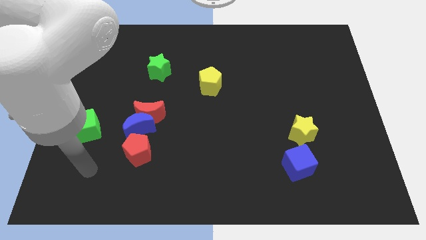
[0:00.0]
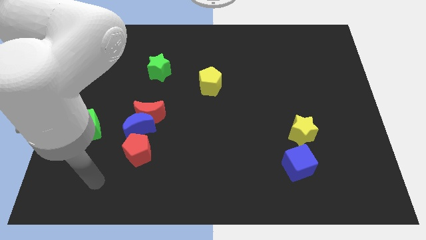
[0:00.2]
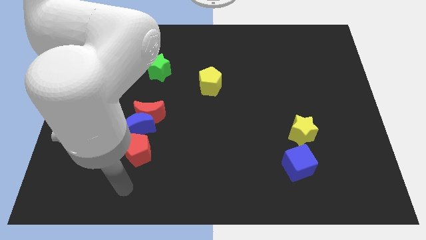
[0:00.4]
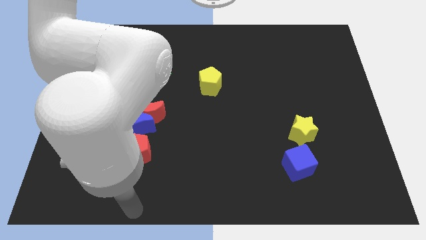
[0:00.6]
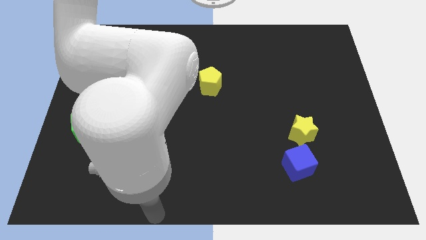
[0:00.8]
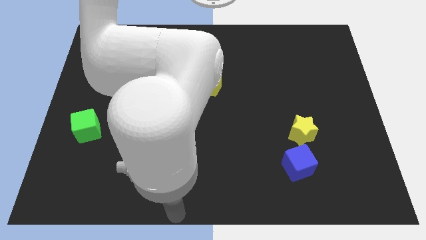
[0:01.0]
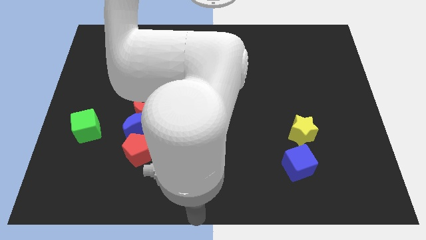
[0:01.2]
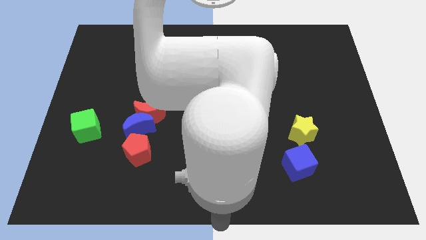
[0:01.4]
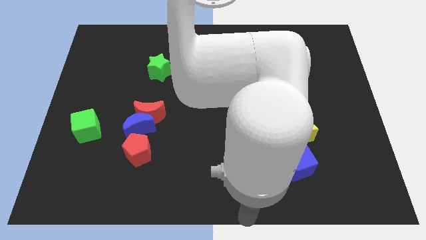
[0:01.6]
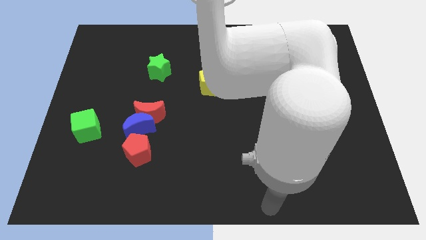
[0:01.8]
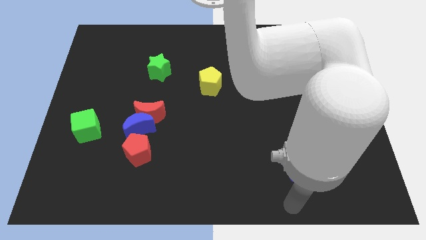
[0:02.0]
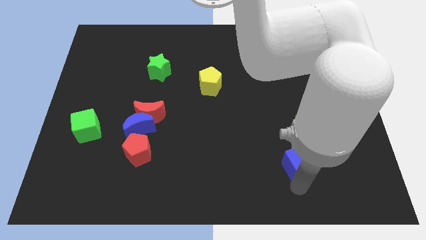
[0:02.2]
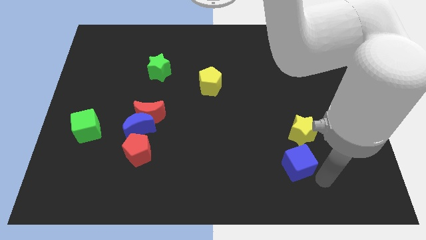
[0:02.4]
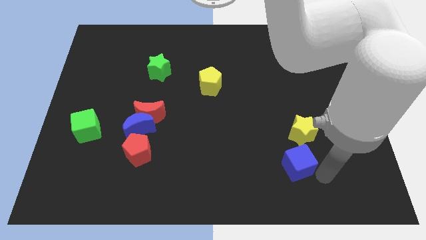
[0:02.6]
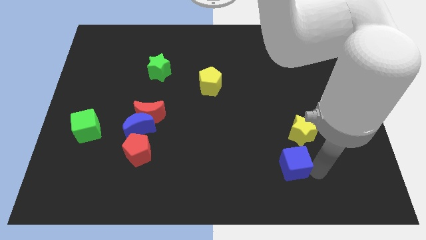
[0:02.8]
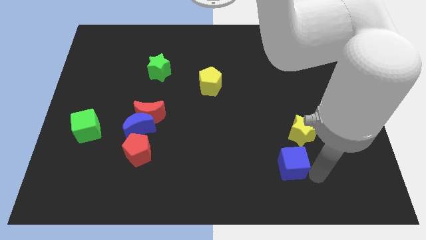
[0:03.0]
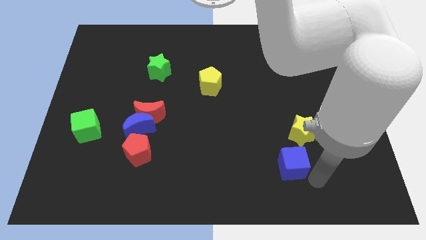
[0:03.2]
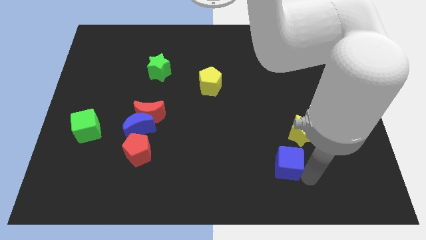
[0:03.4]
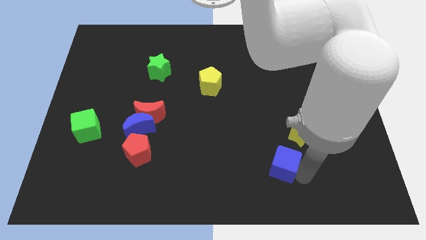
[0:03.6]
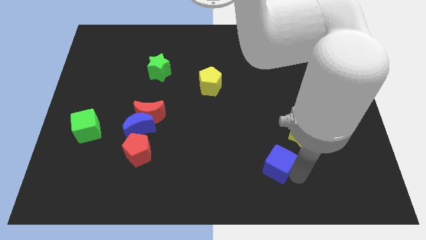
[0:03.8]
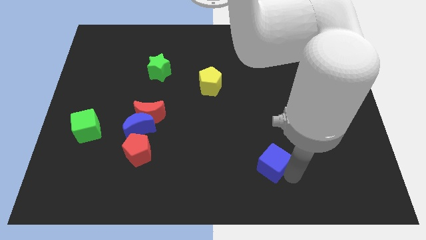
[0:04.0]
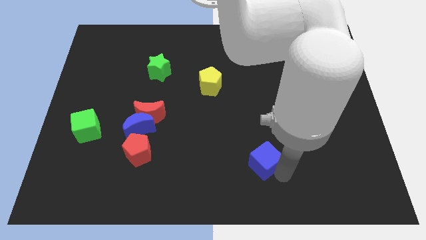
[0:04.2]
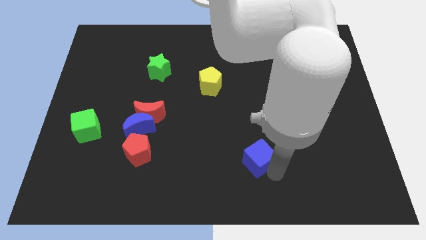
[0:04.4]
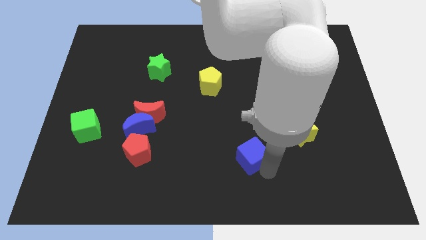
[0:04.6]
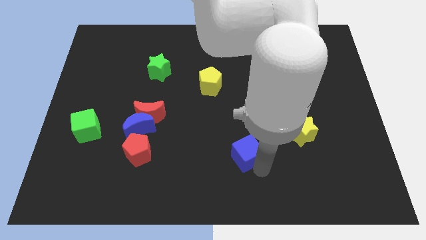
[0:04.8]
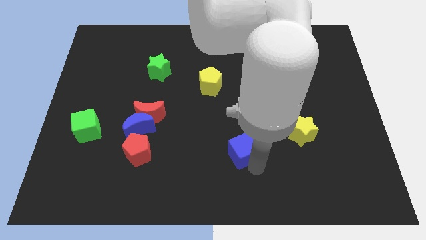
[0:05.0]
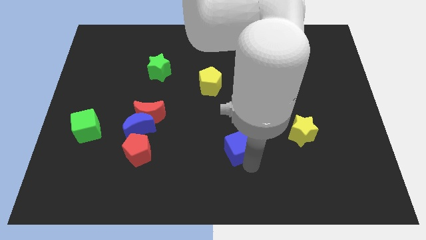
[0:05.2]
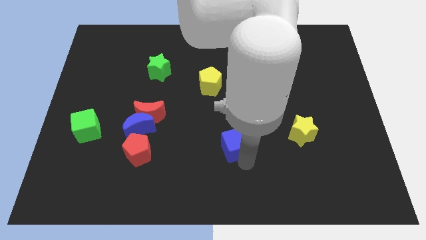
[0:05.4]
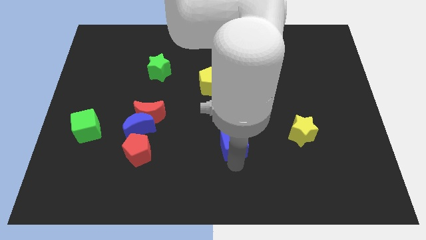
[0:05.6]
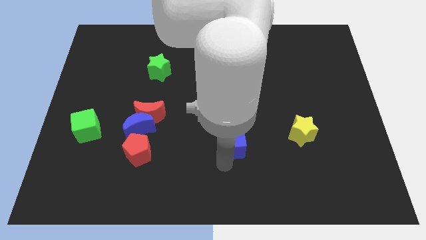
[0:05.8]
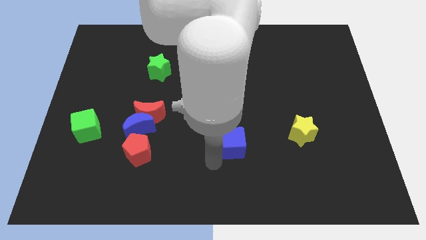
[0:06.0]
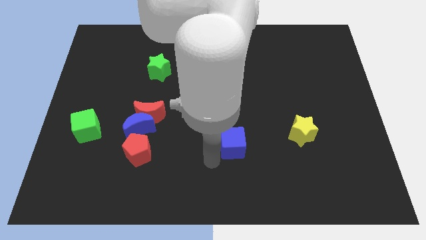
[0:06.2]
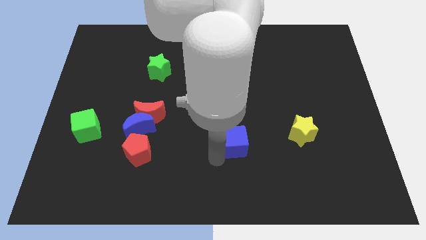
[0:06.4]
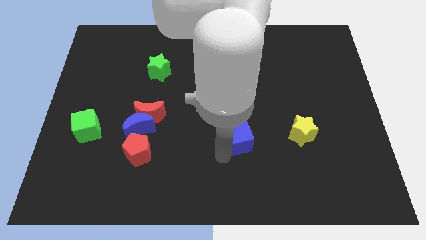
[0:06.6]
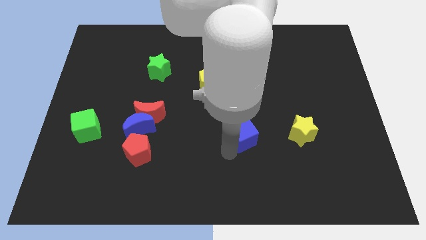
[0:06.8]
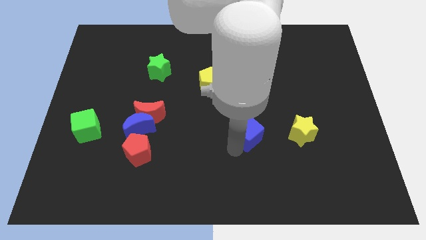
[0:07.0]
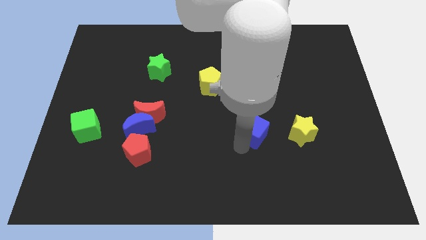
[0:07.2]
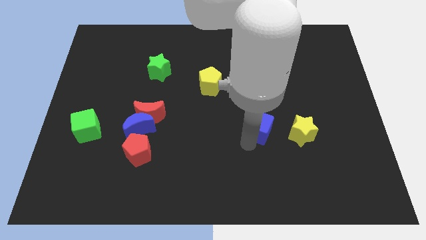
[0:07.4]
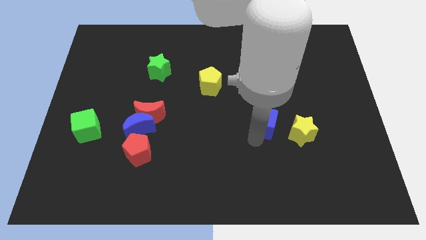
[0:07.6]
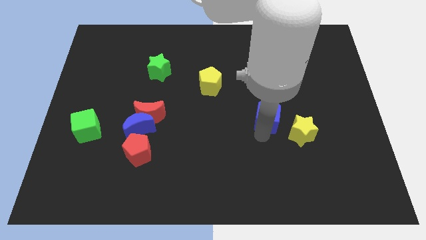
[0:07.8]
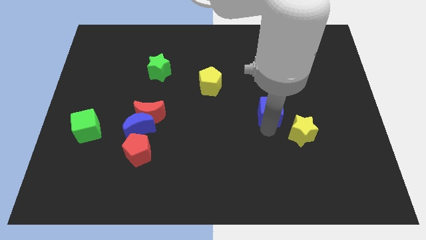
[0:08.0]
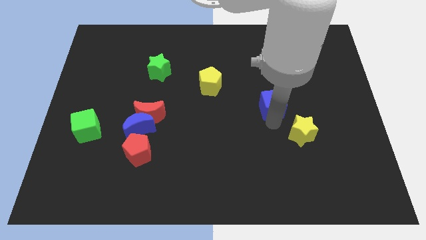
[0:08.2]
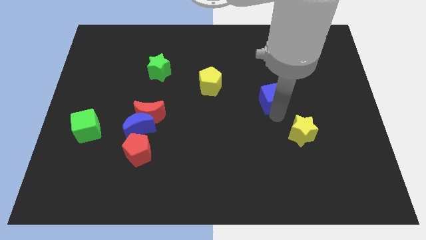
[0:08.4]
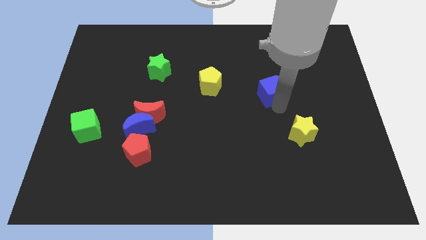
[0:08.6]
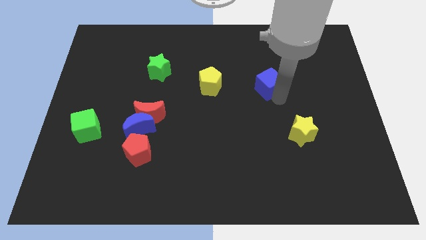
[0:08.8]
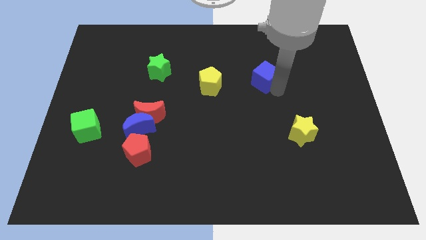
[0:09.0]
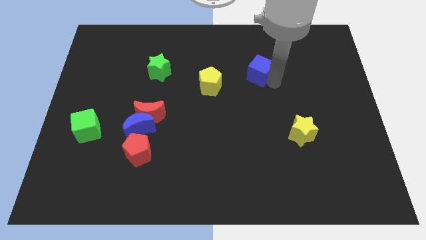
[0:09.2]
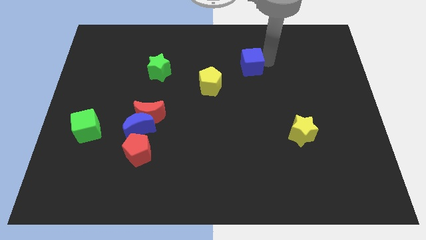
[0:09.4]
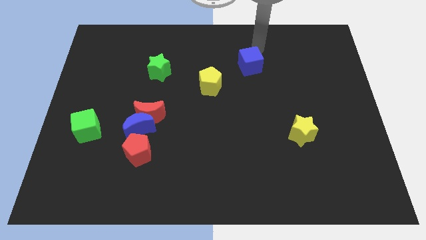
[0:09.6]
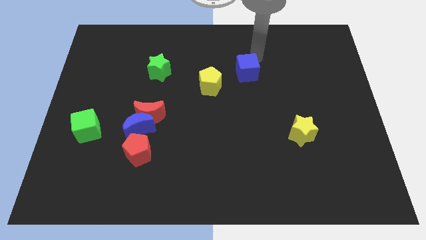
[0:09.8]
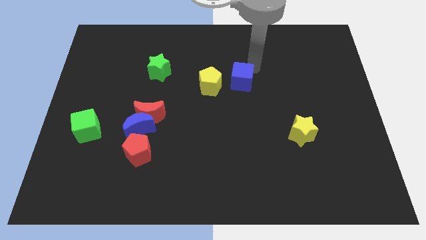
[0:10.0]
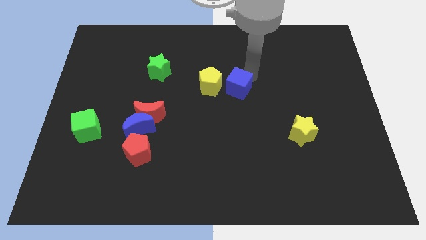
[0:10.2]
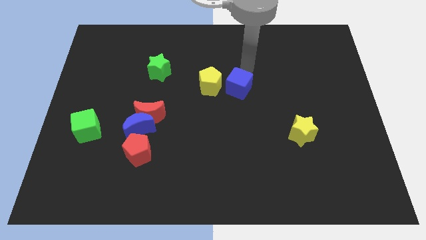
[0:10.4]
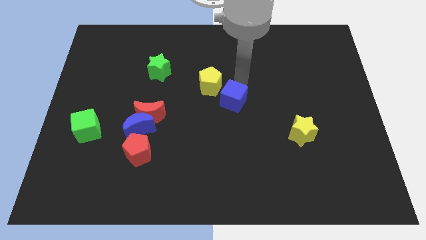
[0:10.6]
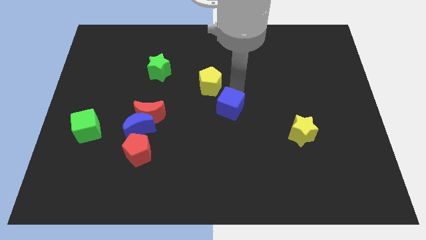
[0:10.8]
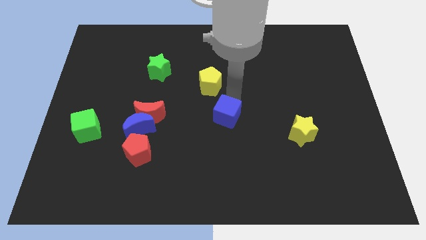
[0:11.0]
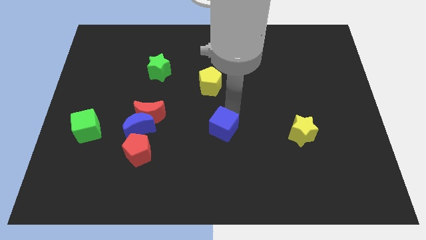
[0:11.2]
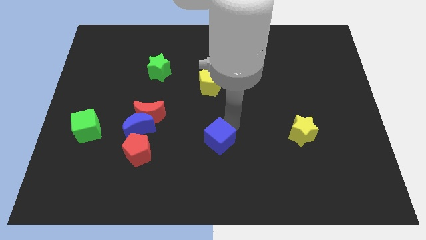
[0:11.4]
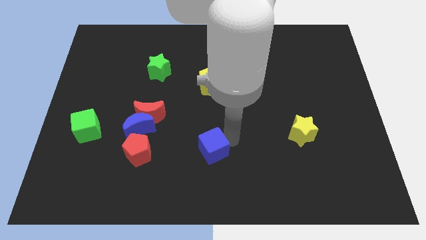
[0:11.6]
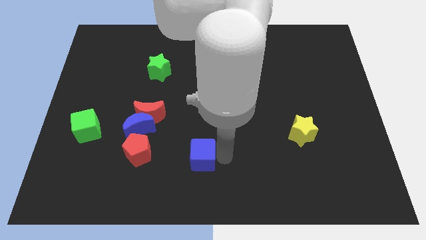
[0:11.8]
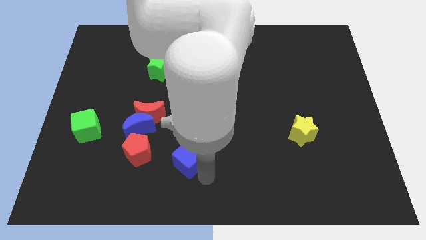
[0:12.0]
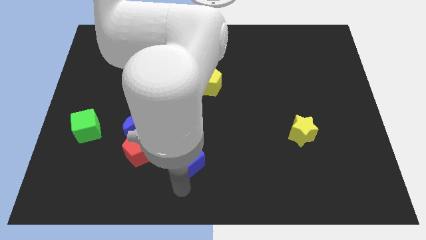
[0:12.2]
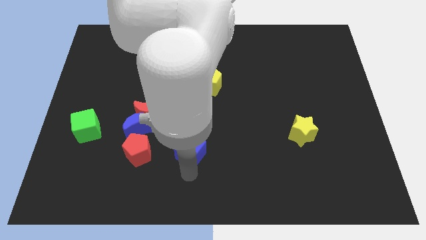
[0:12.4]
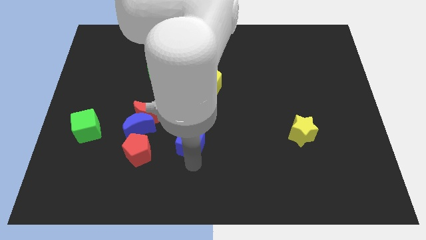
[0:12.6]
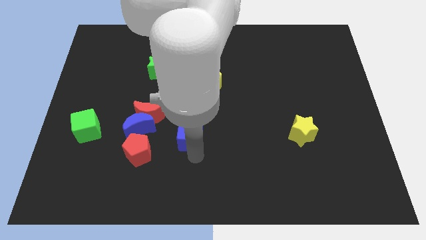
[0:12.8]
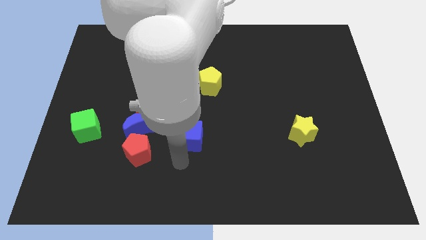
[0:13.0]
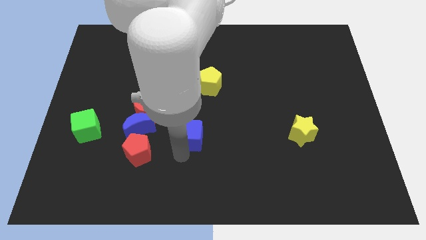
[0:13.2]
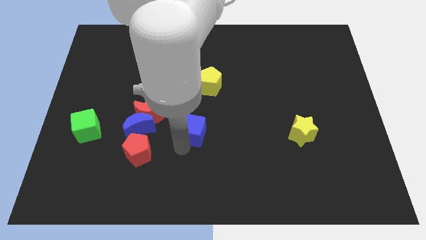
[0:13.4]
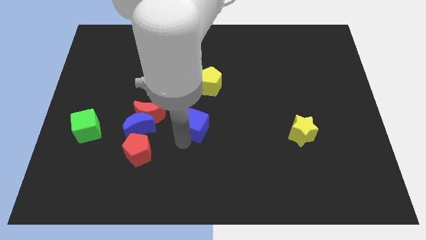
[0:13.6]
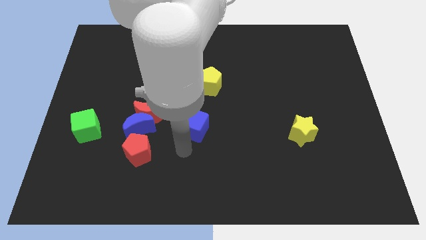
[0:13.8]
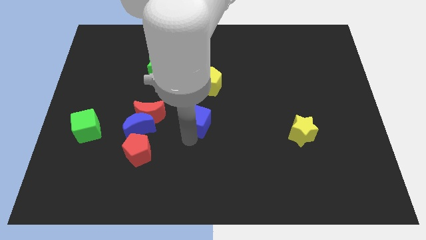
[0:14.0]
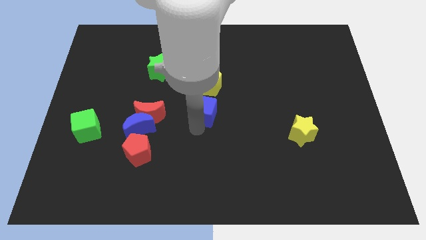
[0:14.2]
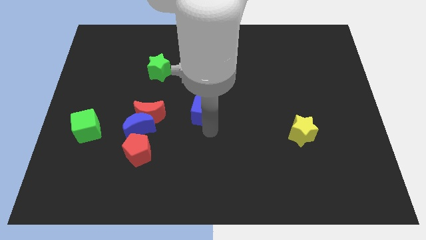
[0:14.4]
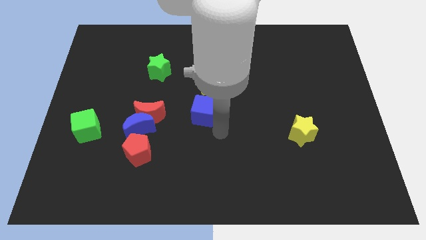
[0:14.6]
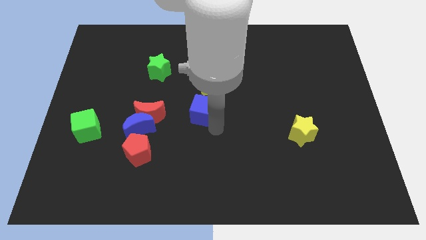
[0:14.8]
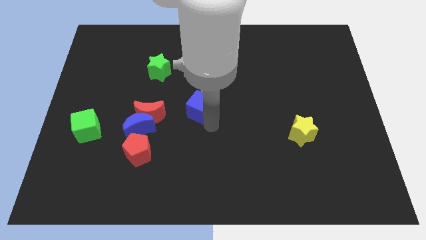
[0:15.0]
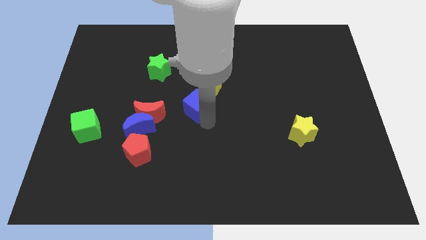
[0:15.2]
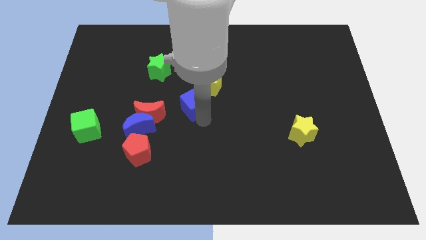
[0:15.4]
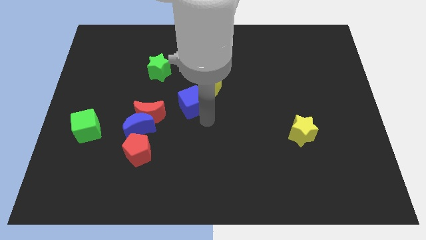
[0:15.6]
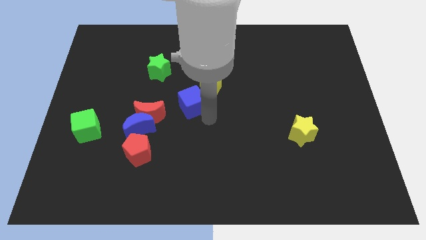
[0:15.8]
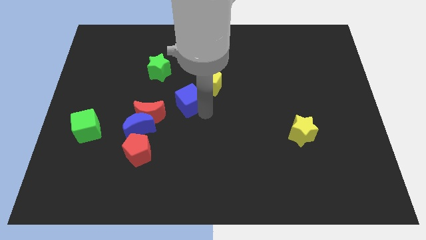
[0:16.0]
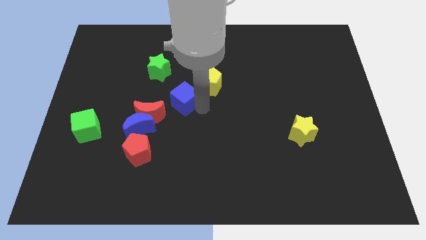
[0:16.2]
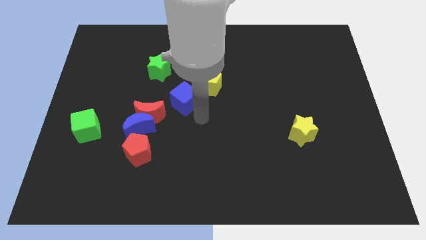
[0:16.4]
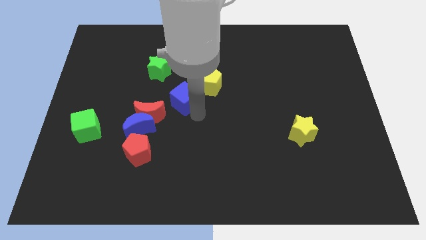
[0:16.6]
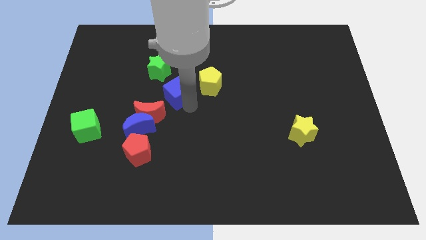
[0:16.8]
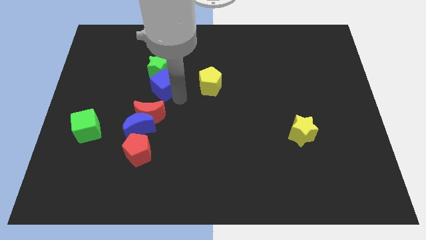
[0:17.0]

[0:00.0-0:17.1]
push the blue cube to the green star
